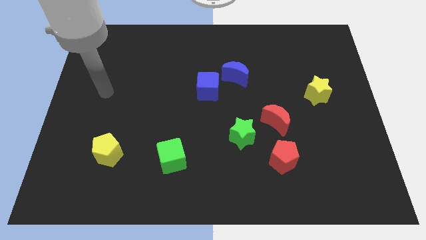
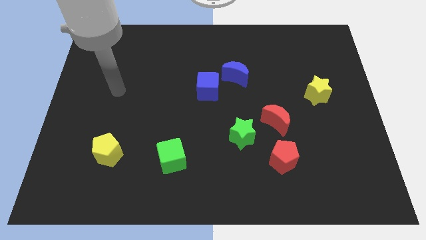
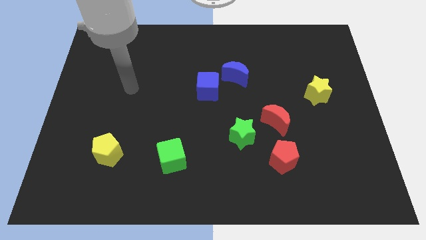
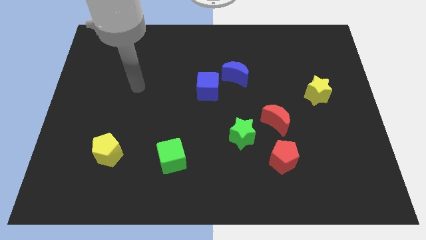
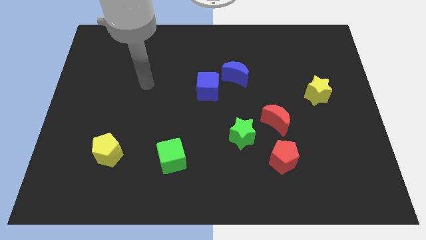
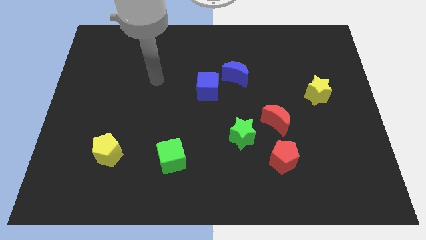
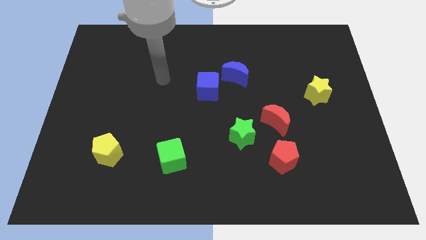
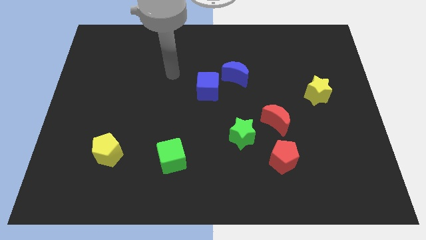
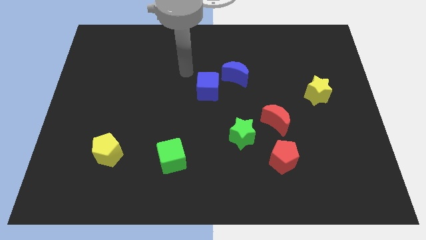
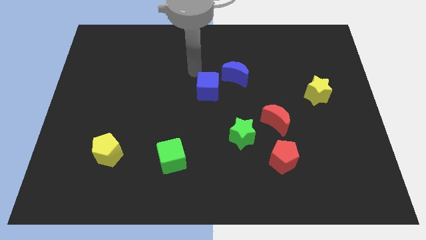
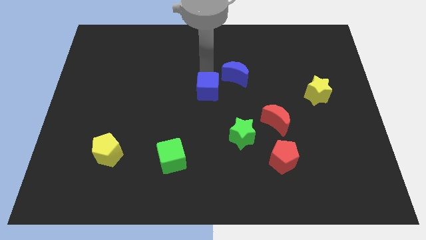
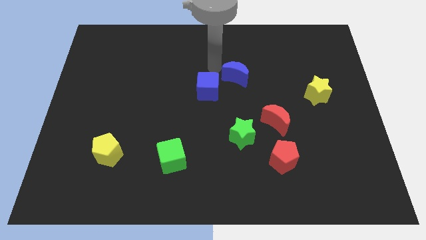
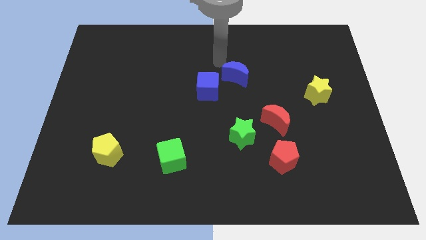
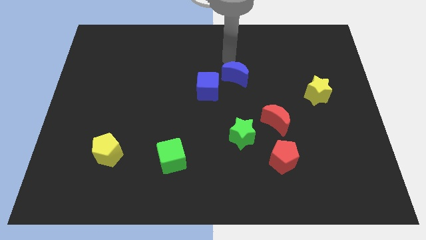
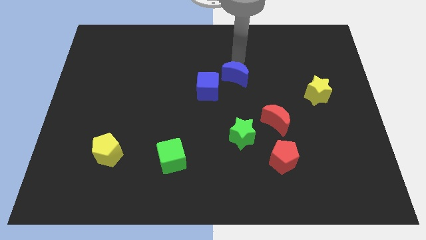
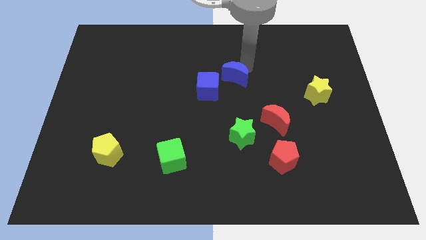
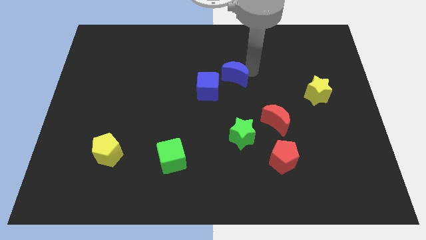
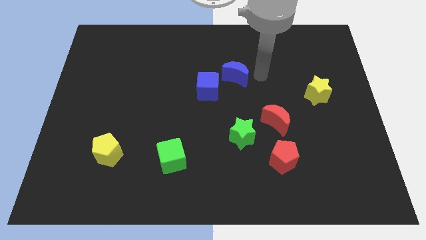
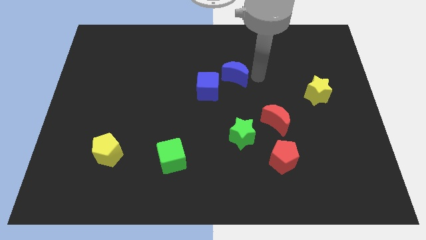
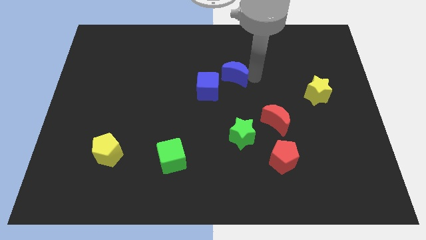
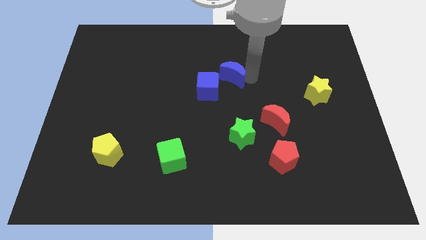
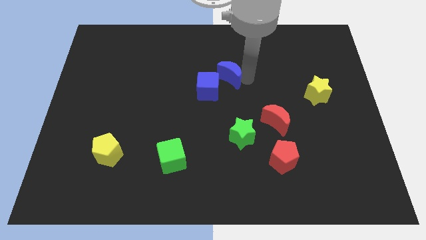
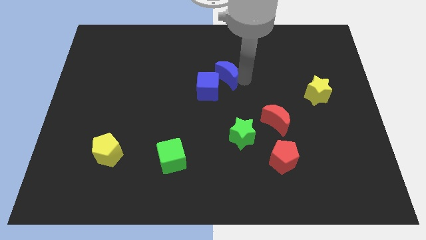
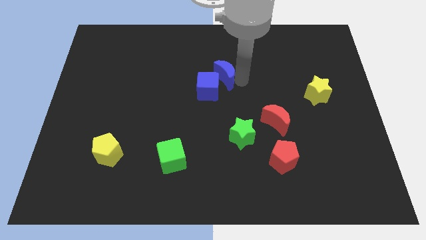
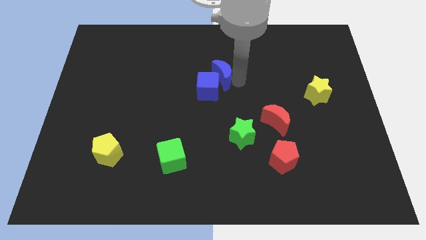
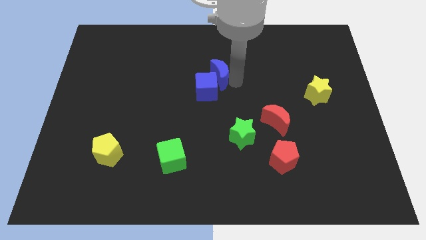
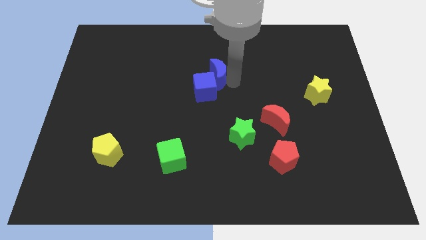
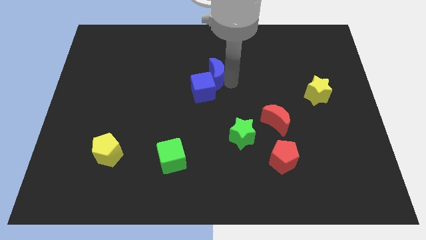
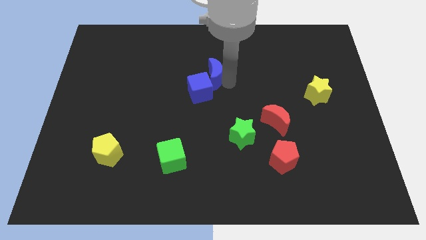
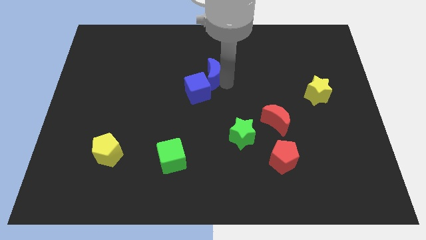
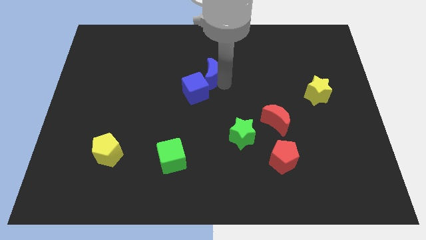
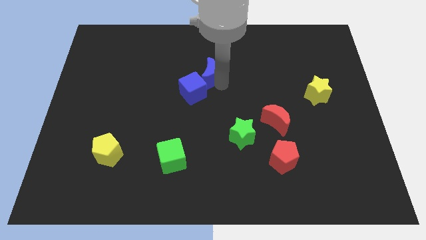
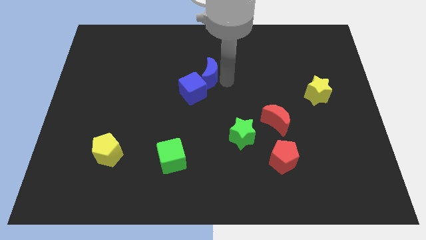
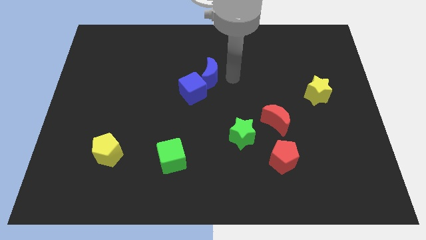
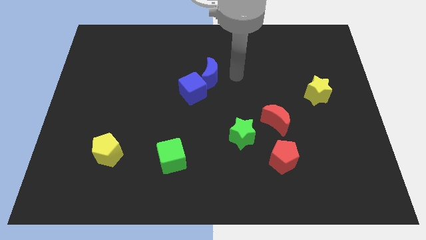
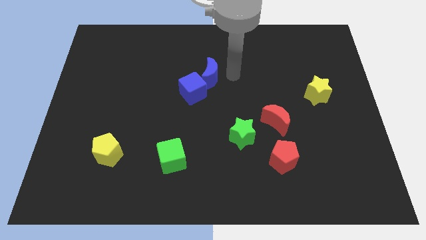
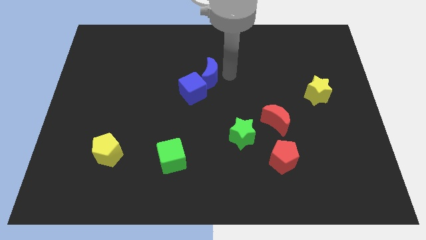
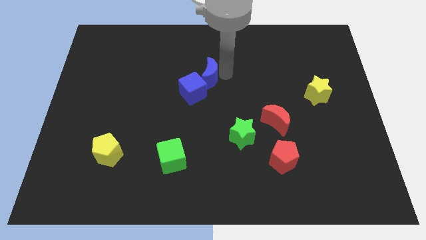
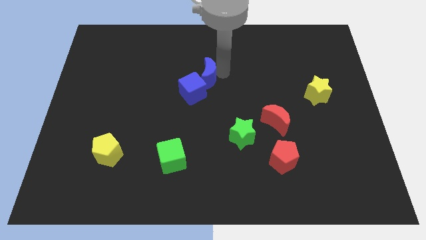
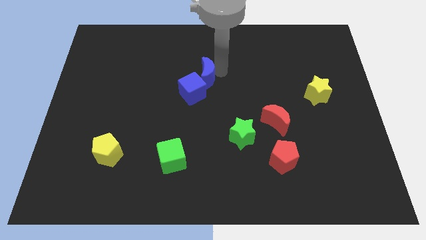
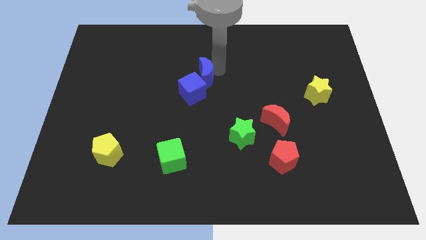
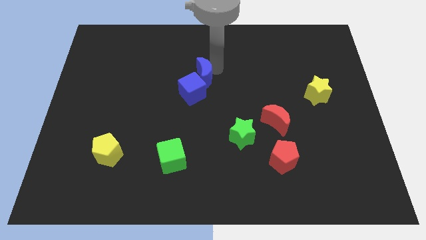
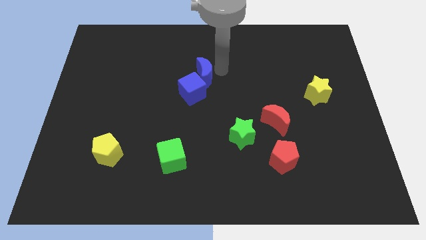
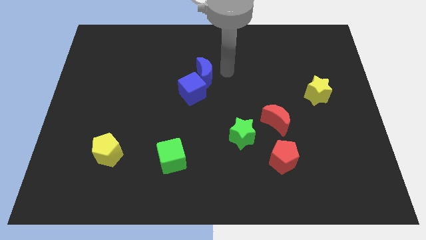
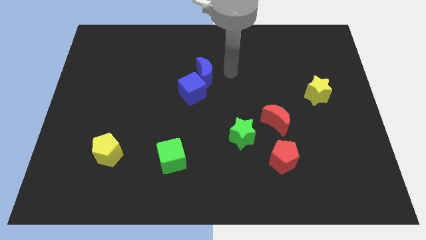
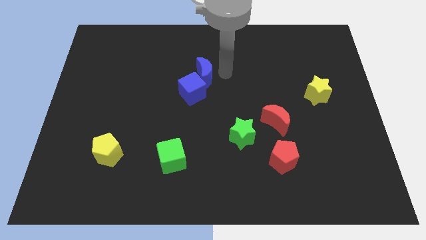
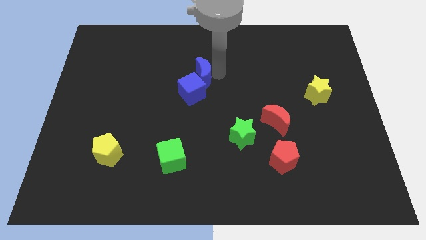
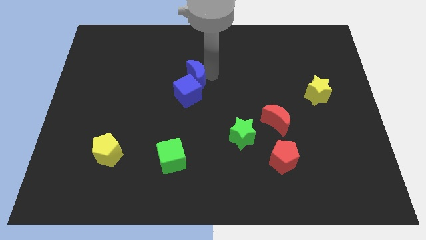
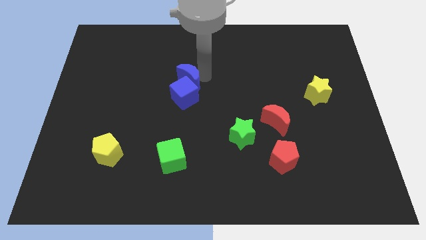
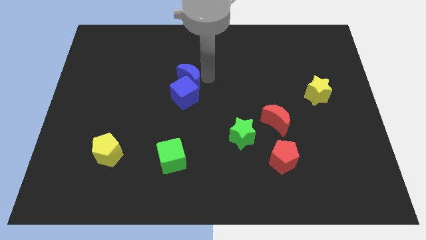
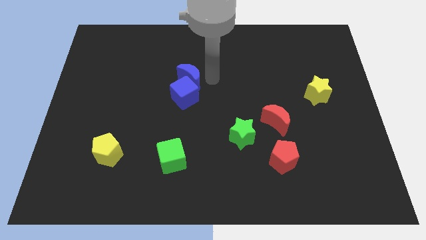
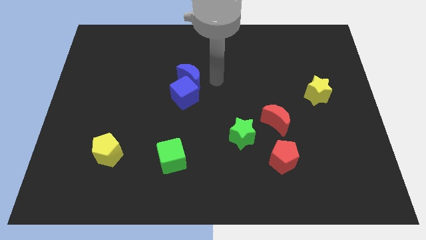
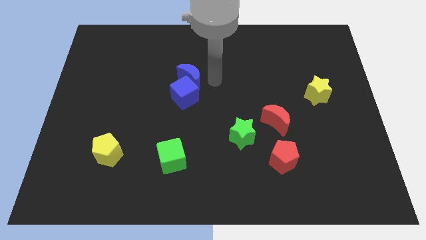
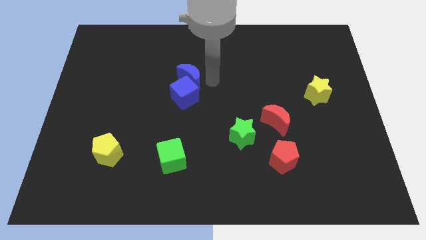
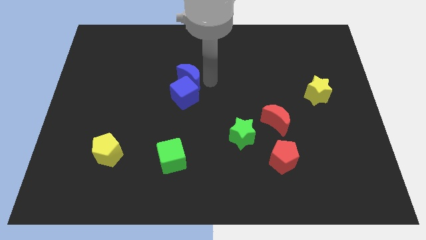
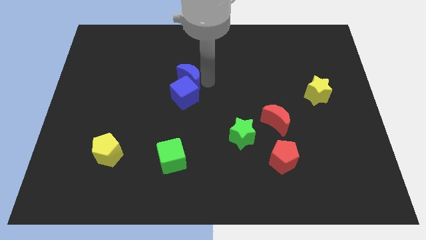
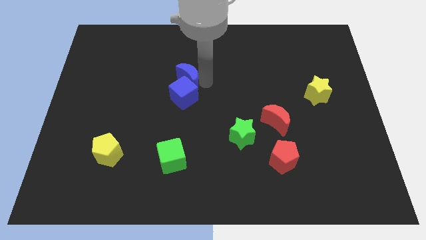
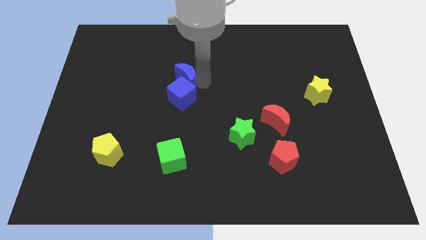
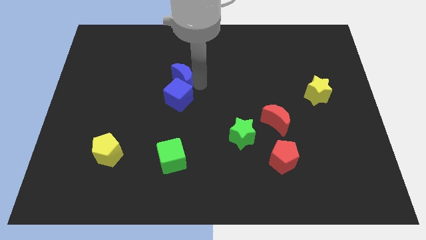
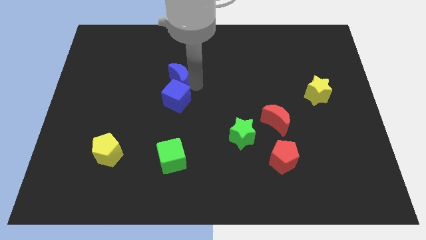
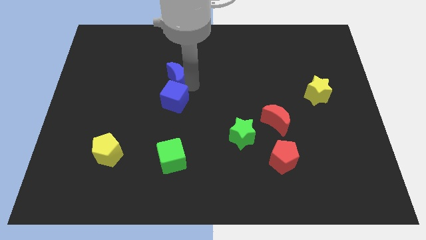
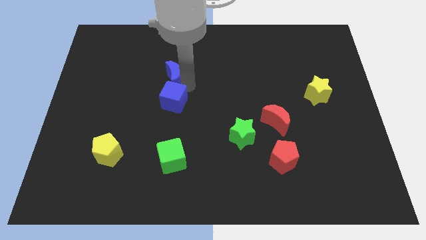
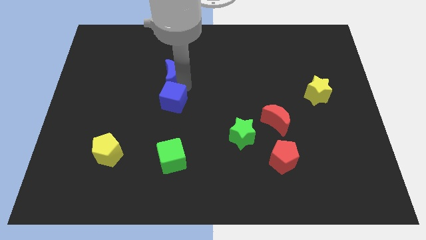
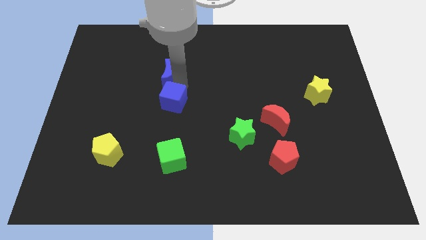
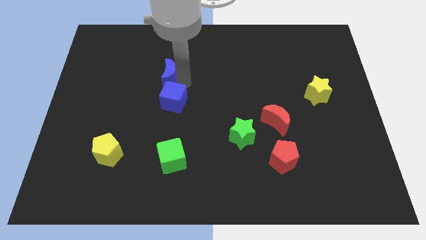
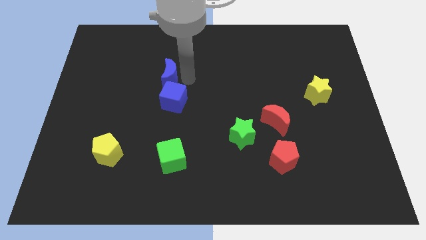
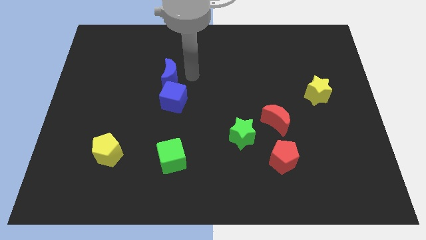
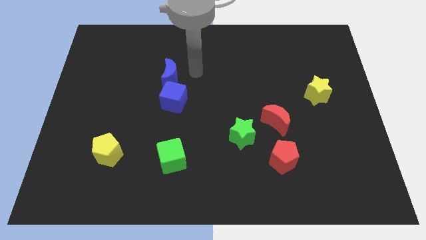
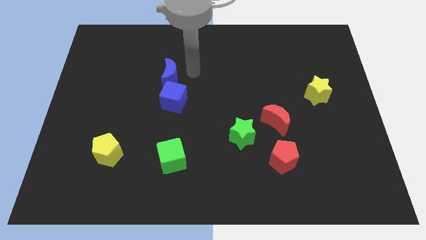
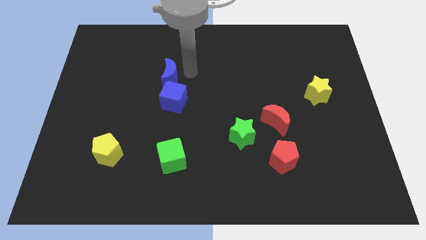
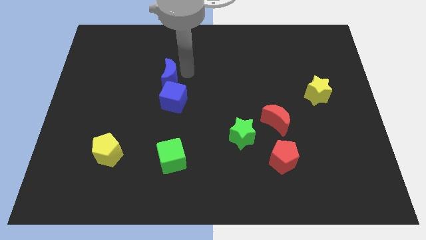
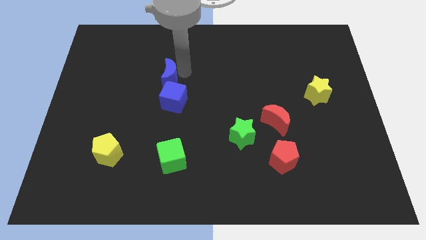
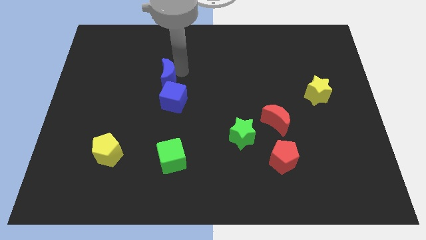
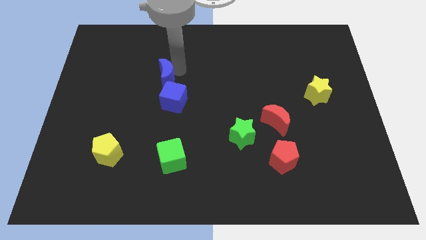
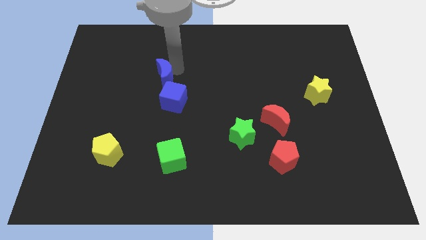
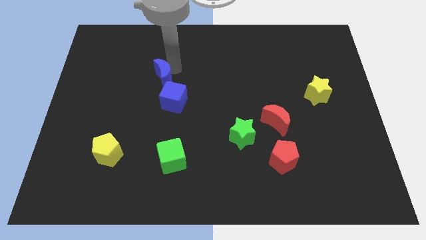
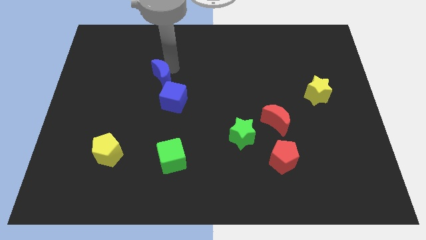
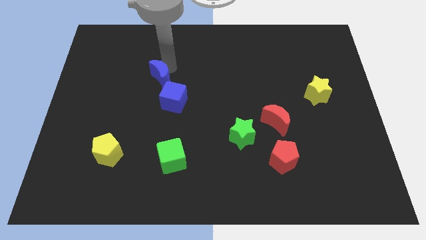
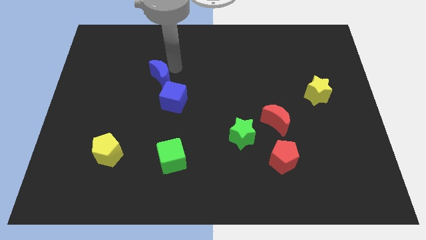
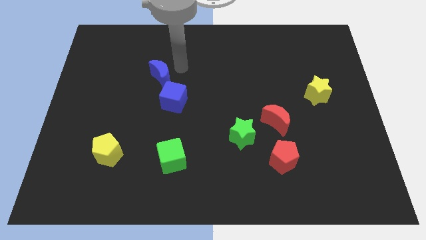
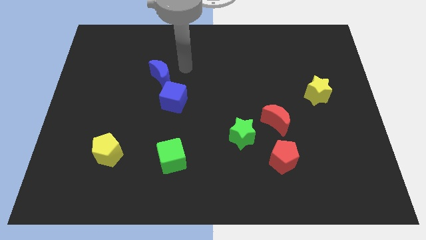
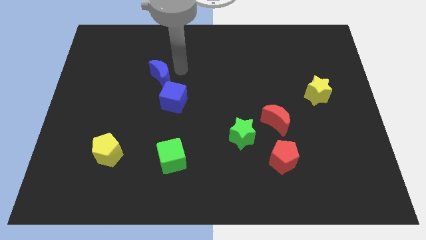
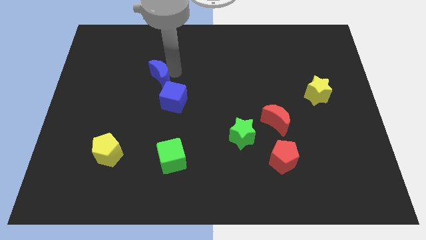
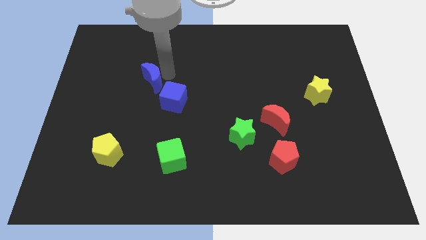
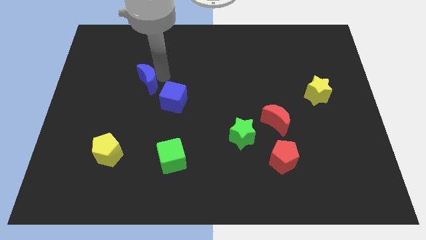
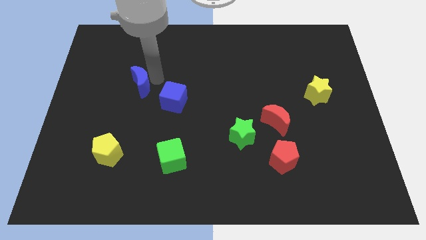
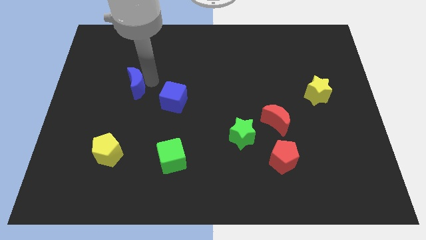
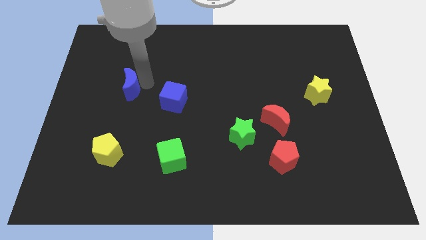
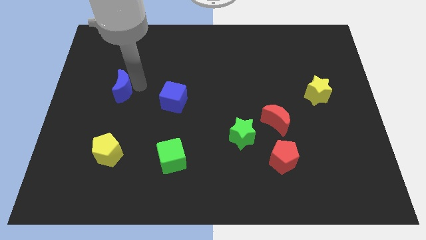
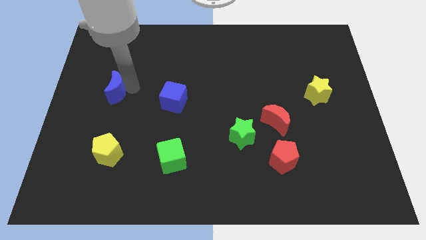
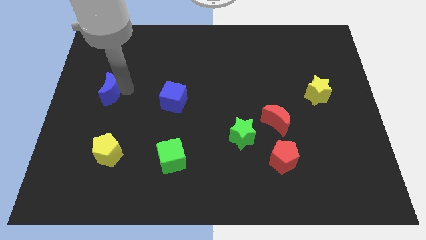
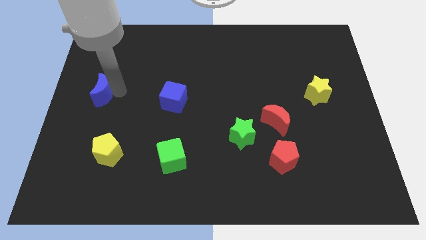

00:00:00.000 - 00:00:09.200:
put the blue moon to the left side
